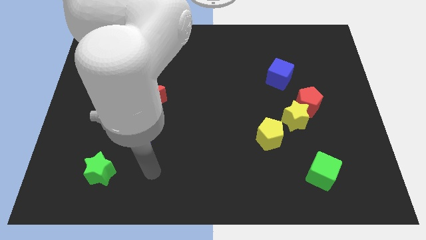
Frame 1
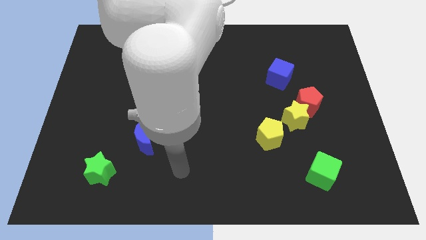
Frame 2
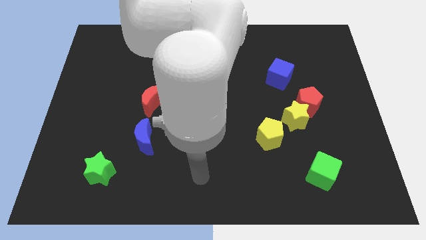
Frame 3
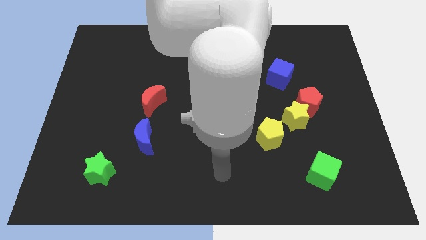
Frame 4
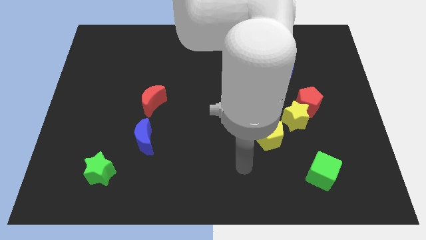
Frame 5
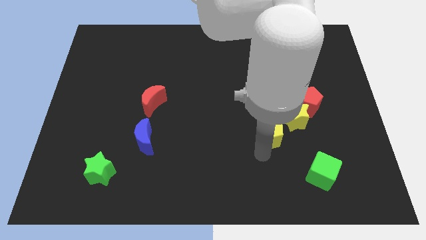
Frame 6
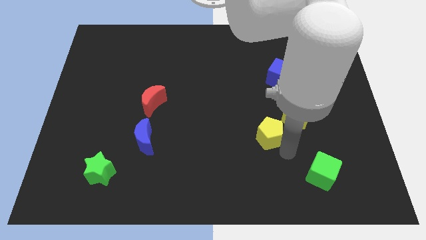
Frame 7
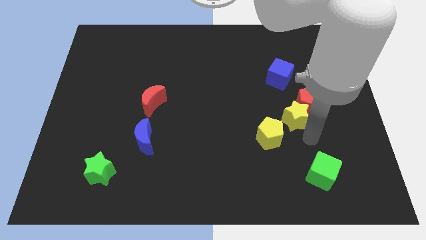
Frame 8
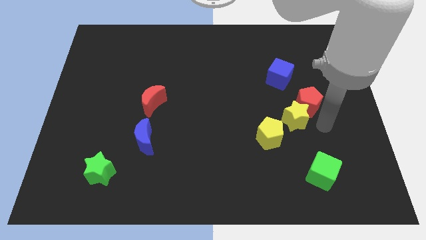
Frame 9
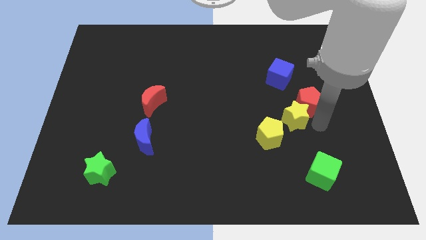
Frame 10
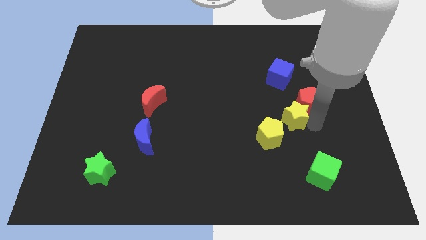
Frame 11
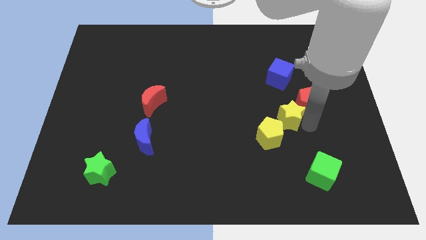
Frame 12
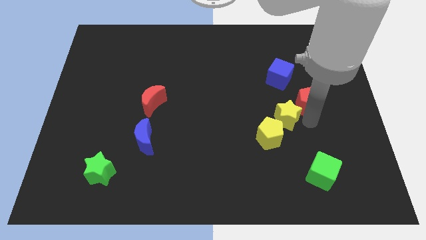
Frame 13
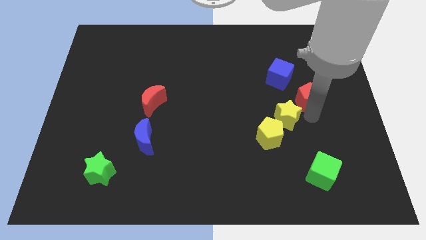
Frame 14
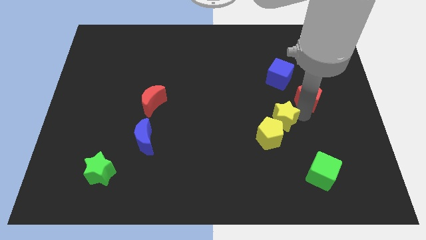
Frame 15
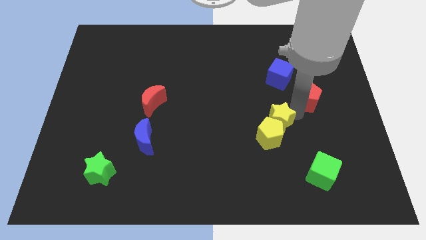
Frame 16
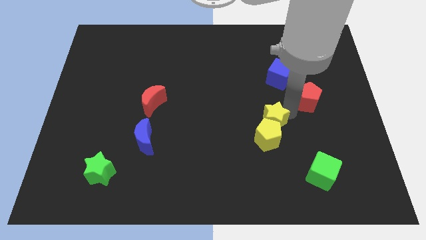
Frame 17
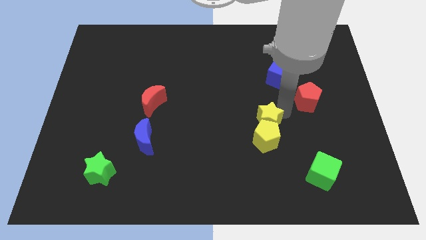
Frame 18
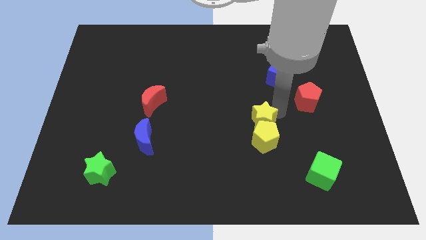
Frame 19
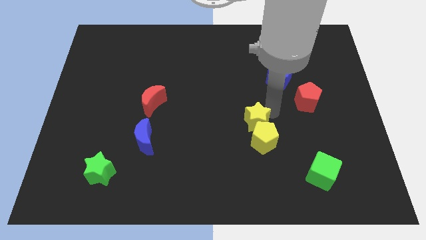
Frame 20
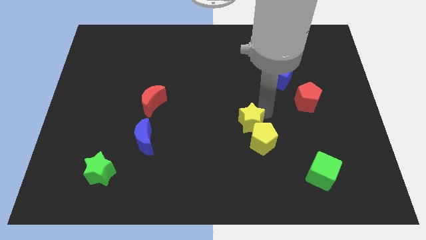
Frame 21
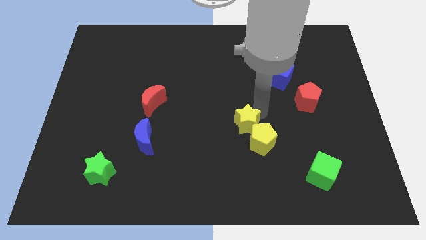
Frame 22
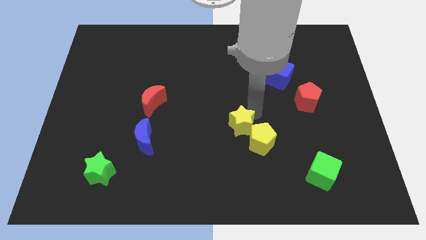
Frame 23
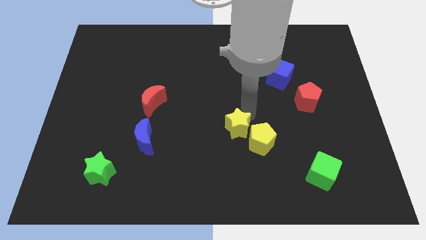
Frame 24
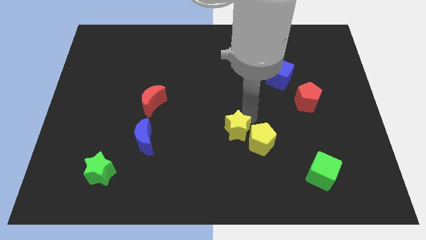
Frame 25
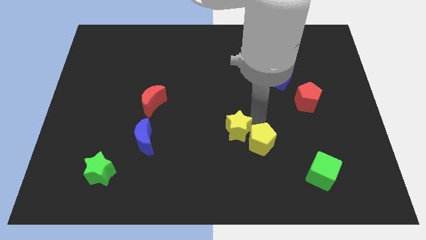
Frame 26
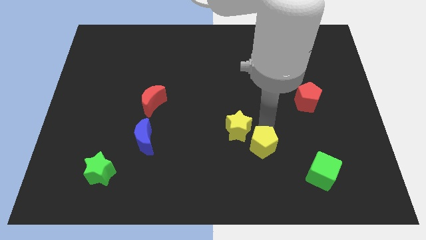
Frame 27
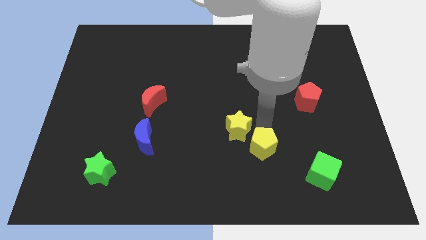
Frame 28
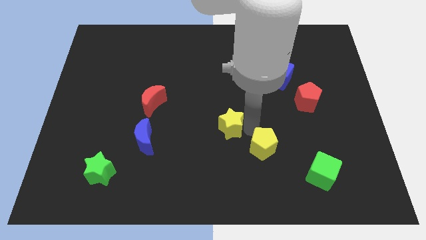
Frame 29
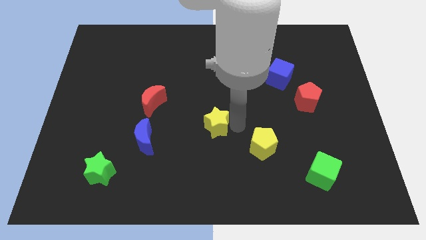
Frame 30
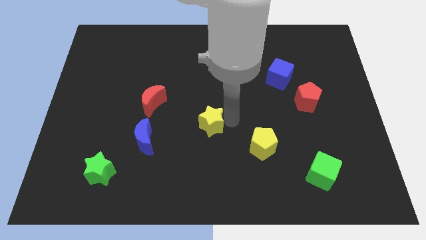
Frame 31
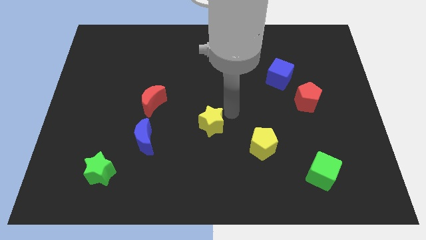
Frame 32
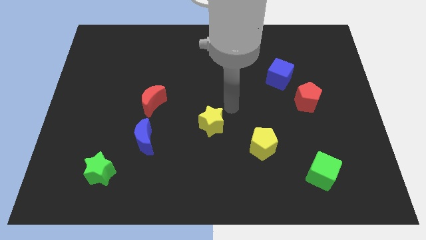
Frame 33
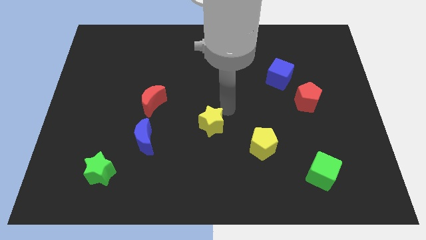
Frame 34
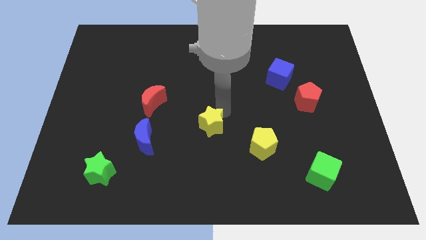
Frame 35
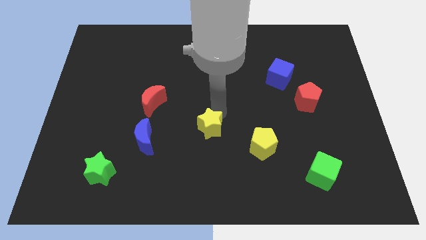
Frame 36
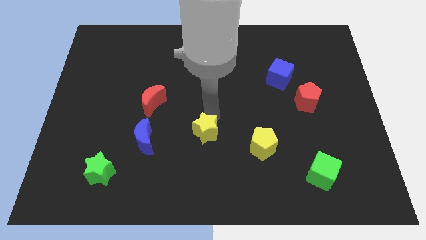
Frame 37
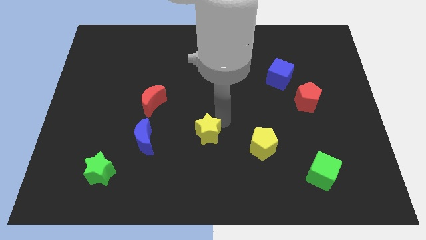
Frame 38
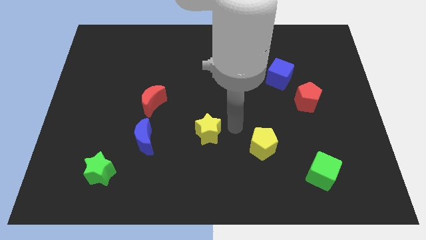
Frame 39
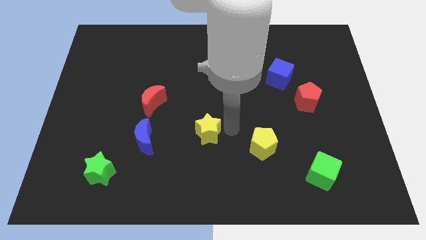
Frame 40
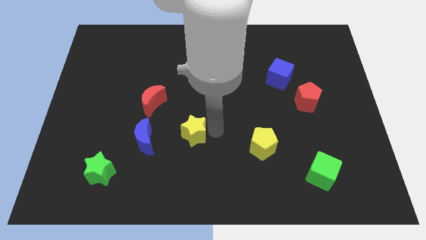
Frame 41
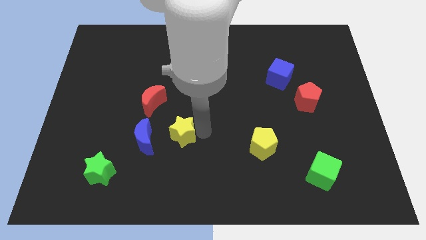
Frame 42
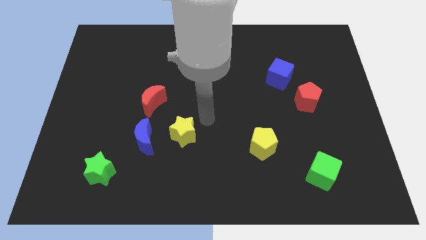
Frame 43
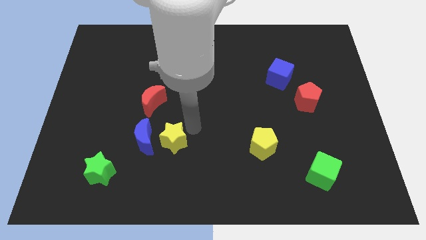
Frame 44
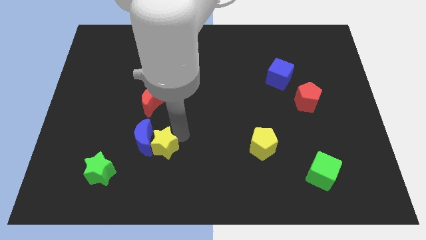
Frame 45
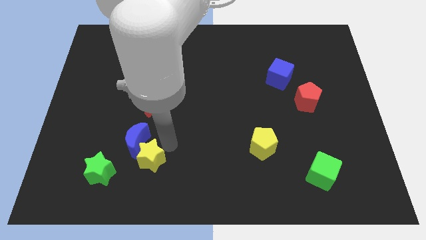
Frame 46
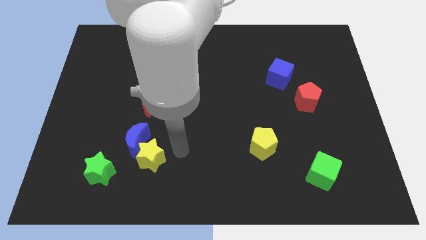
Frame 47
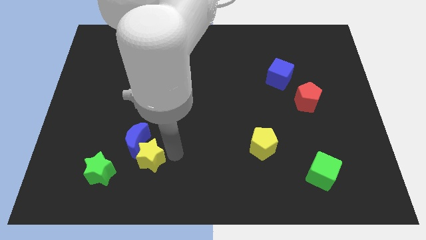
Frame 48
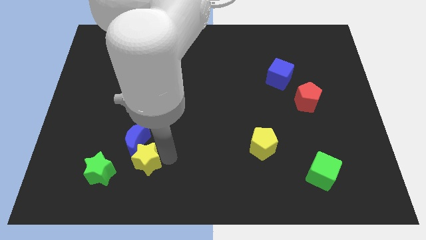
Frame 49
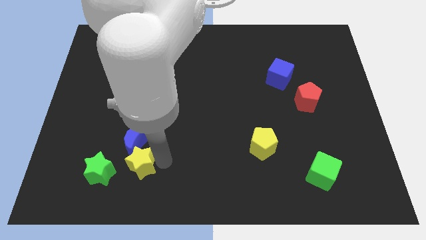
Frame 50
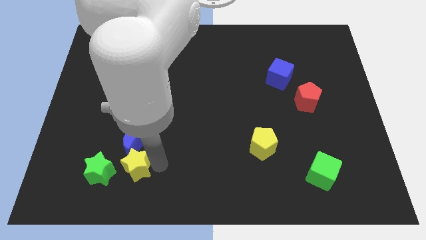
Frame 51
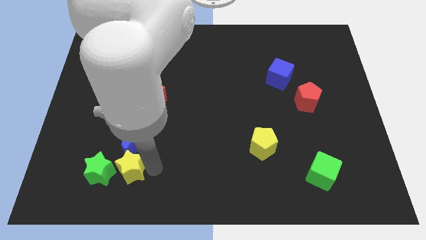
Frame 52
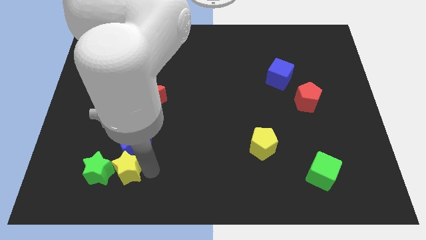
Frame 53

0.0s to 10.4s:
put the yellow star close to the green star

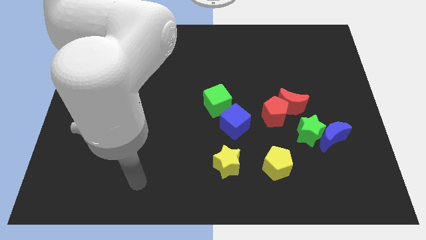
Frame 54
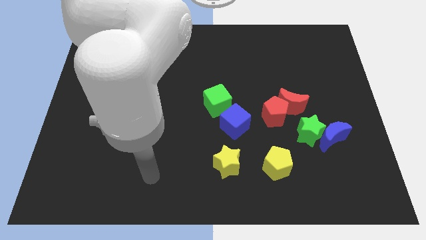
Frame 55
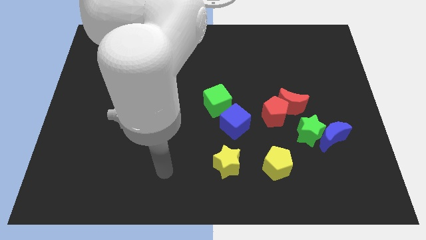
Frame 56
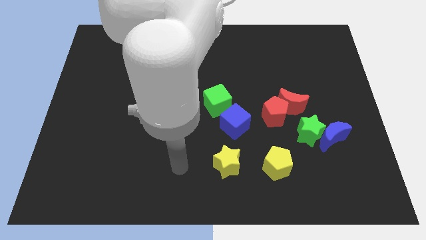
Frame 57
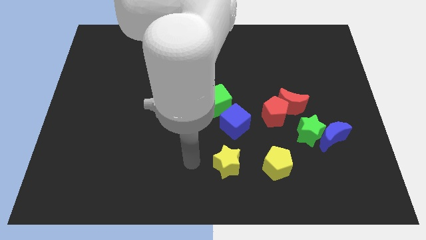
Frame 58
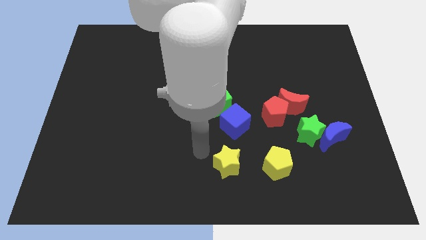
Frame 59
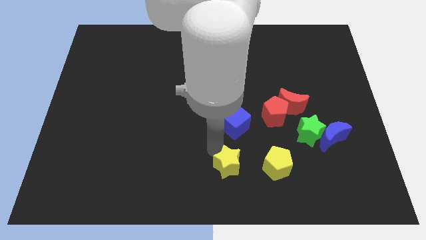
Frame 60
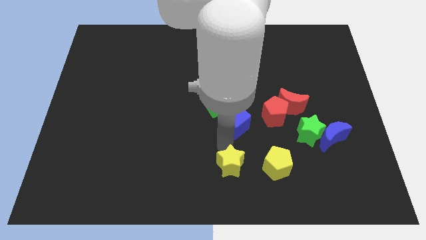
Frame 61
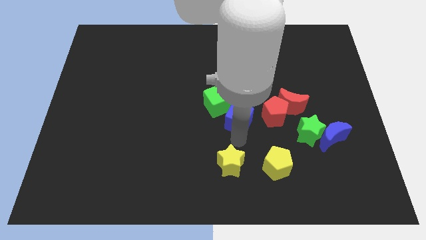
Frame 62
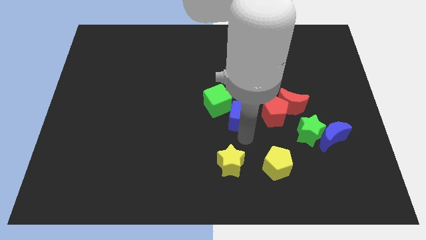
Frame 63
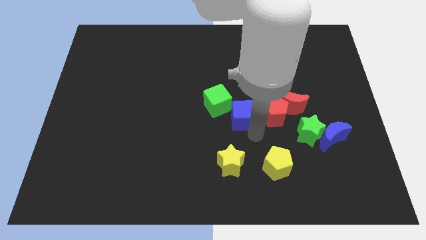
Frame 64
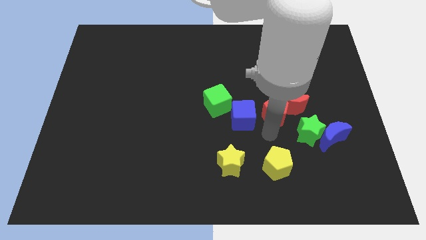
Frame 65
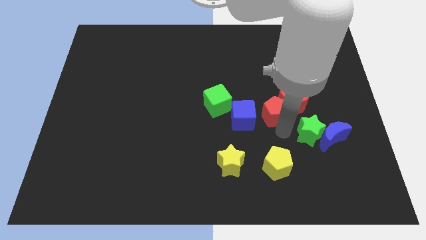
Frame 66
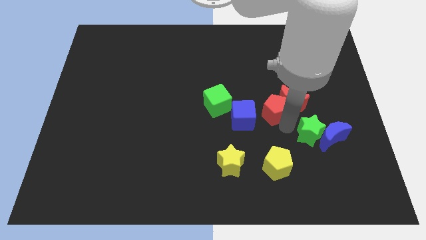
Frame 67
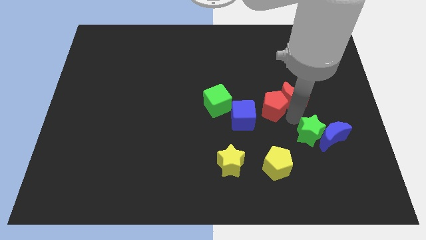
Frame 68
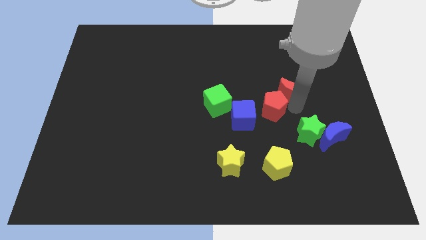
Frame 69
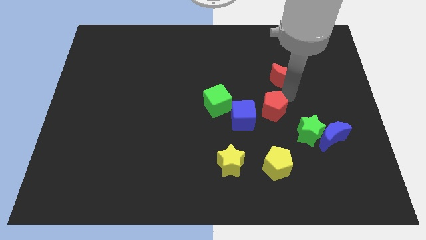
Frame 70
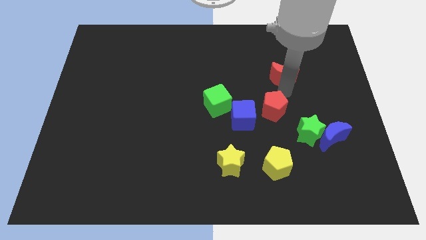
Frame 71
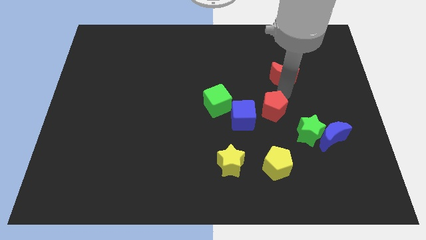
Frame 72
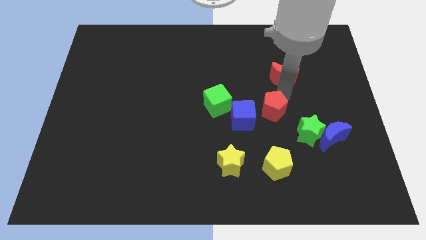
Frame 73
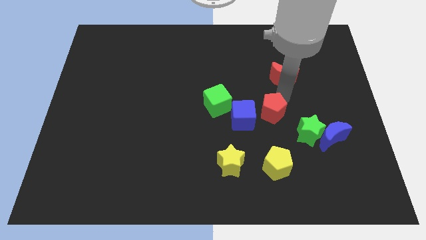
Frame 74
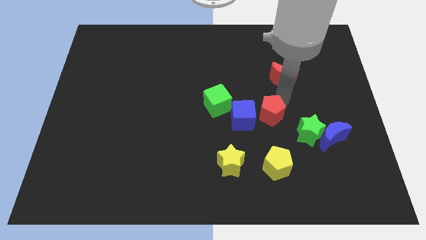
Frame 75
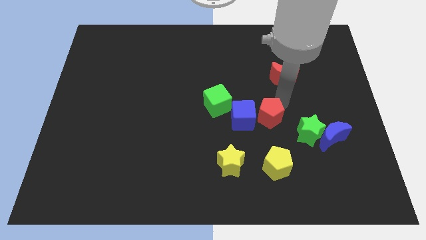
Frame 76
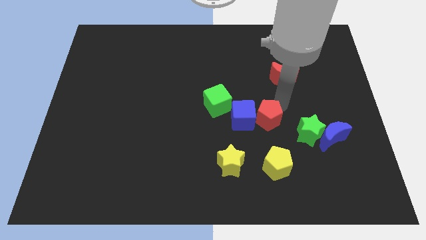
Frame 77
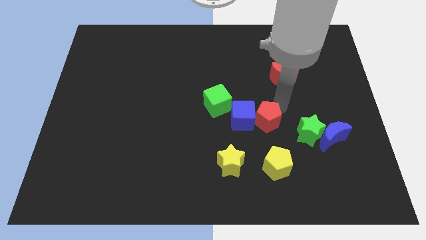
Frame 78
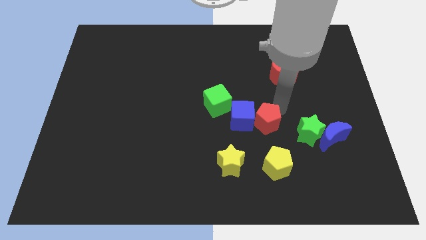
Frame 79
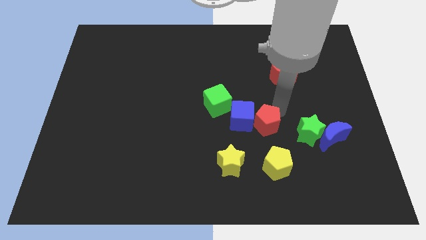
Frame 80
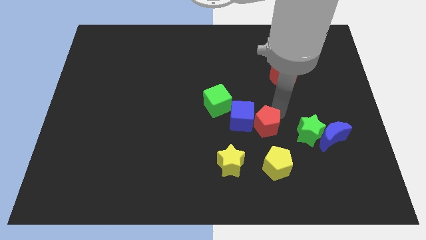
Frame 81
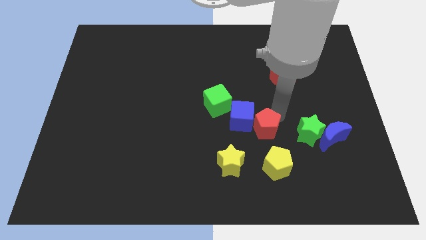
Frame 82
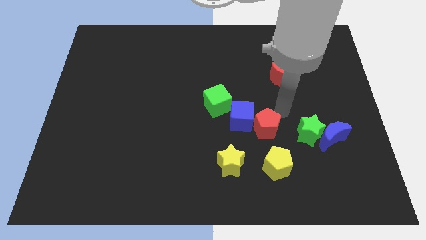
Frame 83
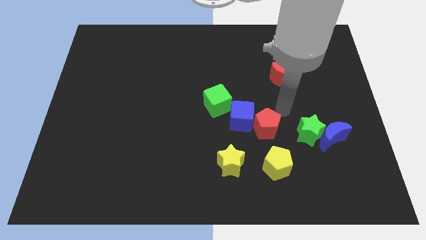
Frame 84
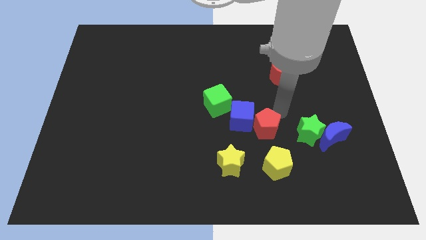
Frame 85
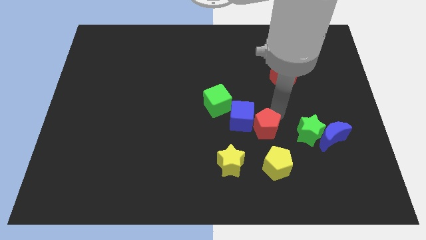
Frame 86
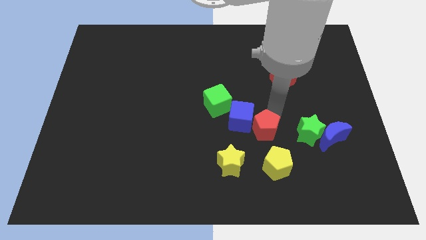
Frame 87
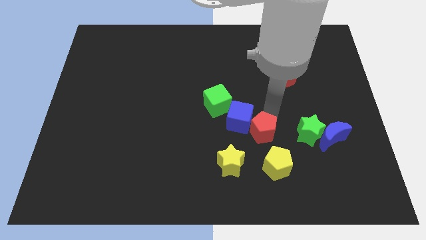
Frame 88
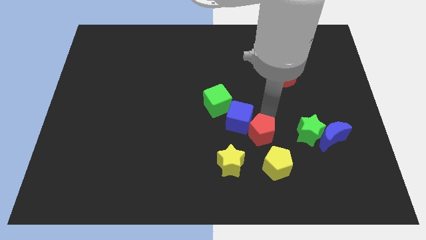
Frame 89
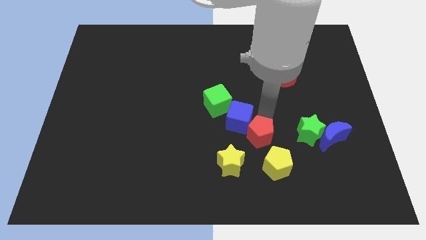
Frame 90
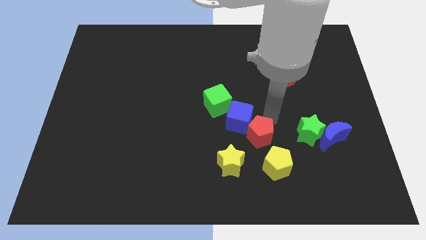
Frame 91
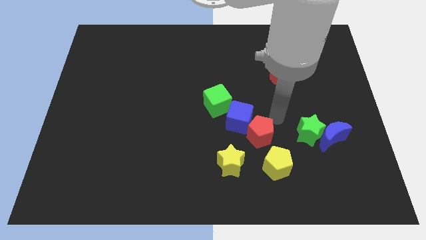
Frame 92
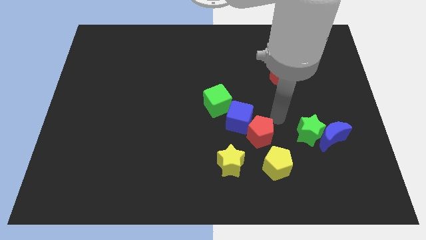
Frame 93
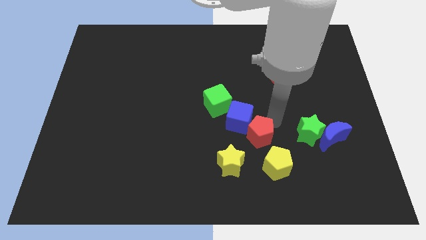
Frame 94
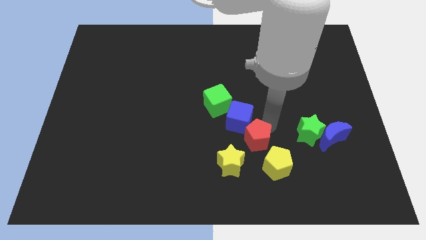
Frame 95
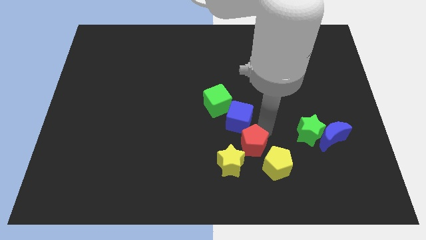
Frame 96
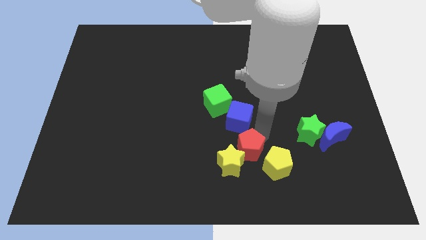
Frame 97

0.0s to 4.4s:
push the red pentagon towards the yellow star
